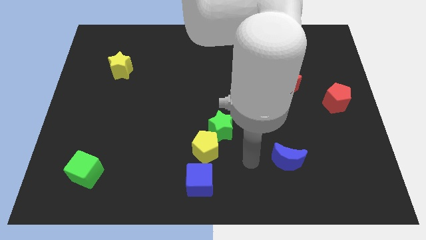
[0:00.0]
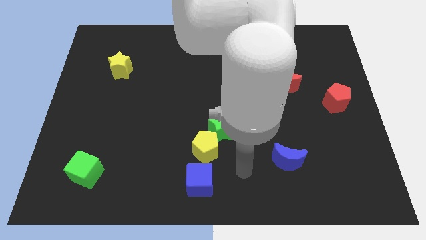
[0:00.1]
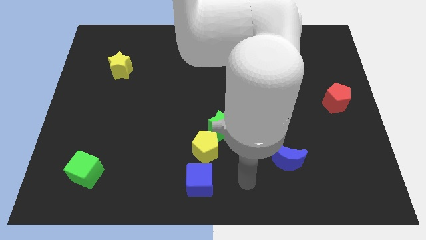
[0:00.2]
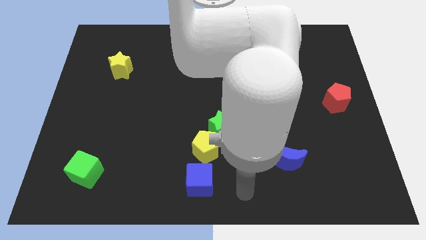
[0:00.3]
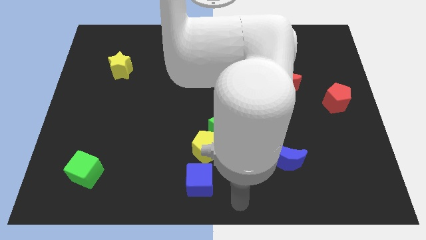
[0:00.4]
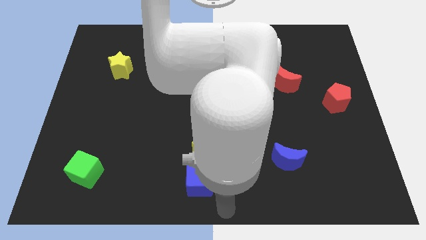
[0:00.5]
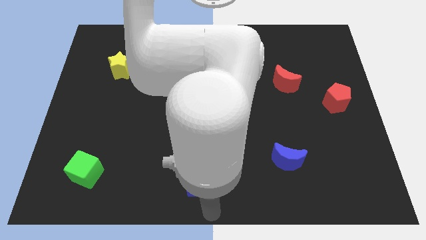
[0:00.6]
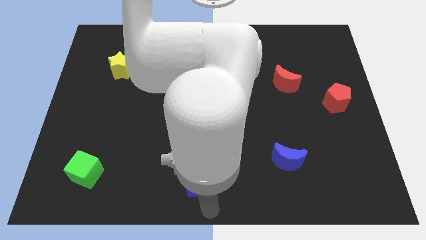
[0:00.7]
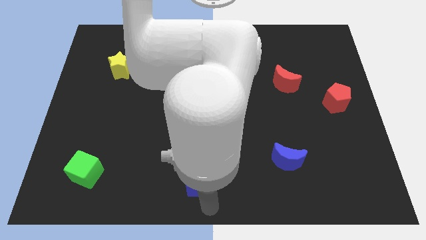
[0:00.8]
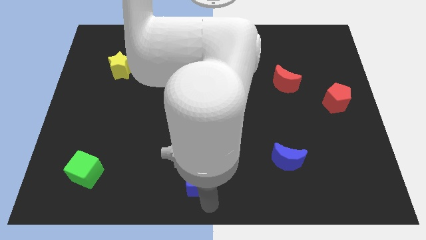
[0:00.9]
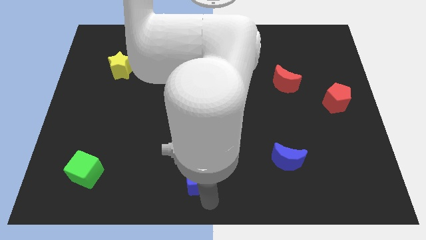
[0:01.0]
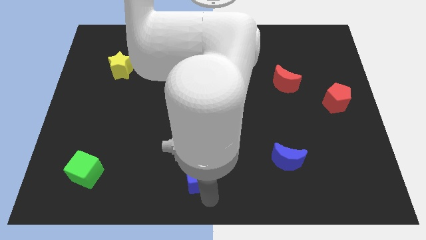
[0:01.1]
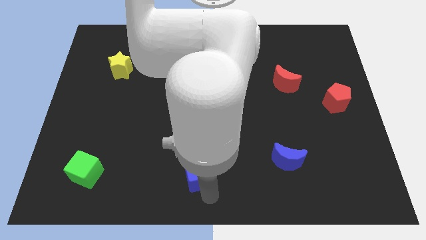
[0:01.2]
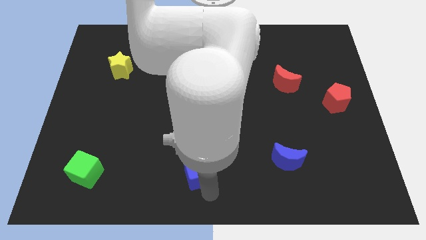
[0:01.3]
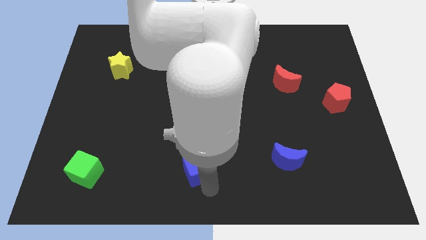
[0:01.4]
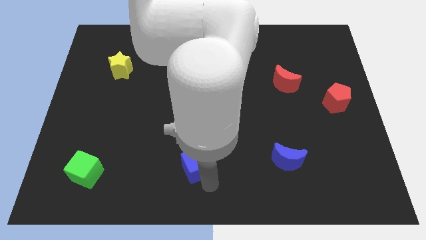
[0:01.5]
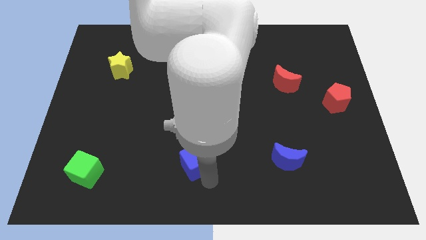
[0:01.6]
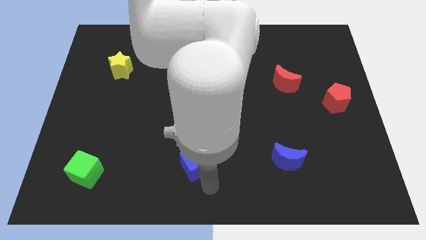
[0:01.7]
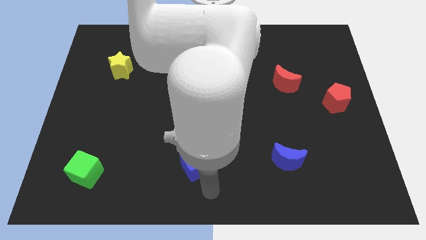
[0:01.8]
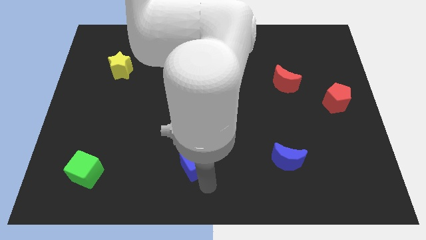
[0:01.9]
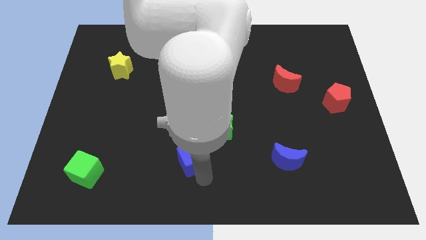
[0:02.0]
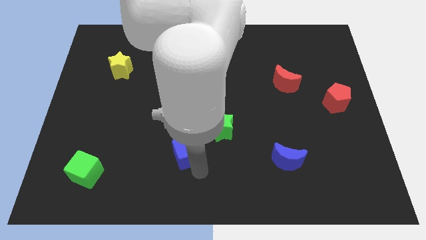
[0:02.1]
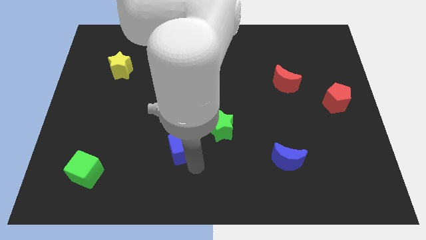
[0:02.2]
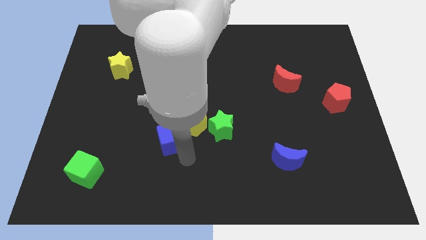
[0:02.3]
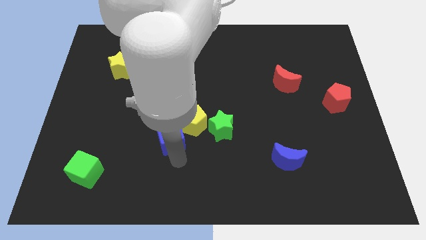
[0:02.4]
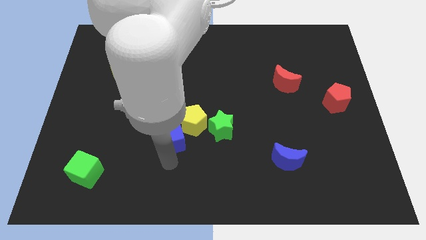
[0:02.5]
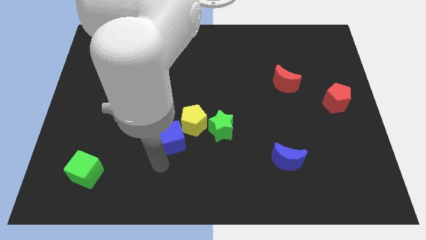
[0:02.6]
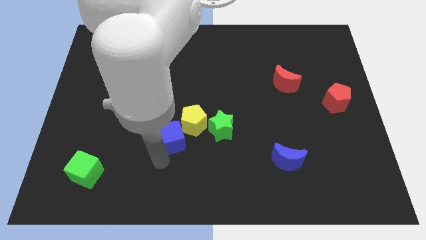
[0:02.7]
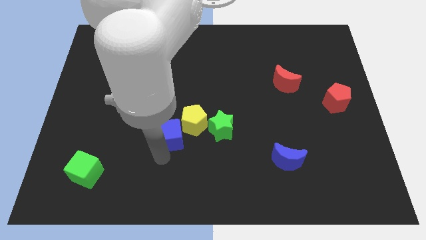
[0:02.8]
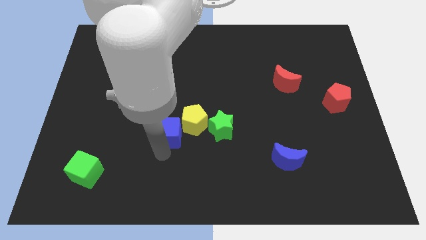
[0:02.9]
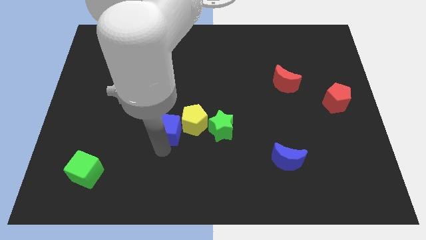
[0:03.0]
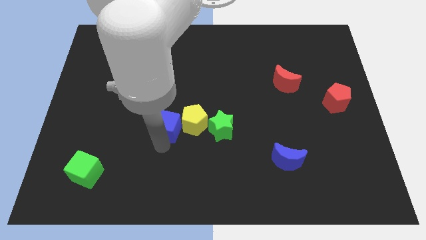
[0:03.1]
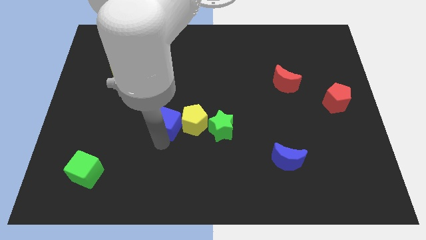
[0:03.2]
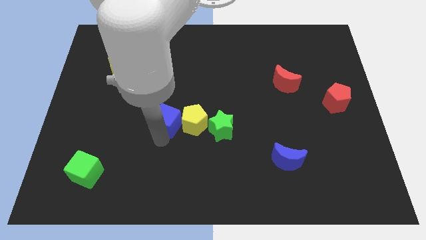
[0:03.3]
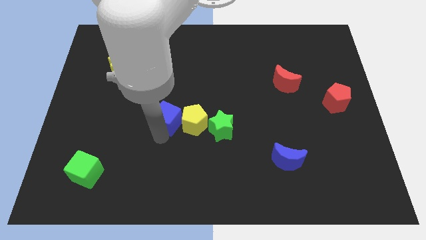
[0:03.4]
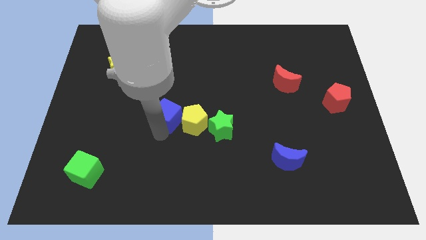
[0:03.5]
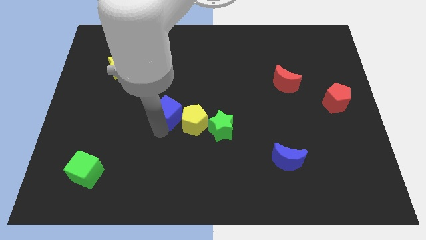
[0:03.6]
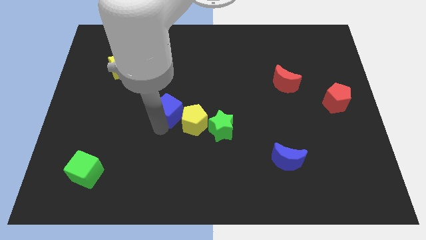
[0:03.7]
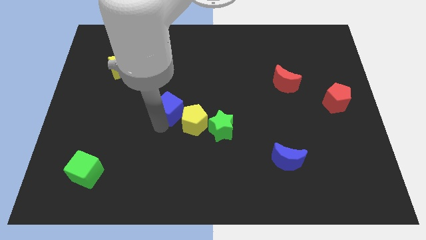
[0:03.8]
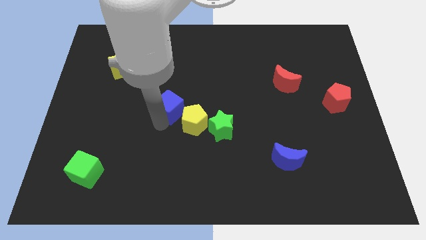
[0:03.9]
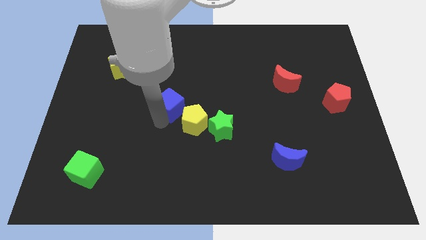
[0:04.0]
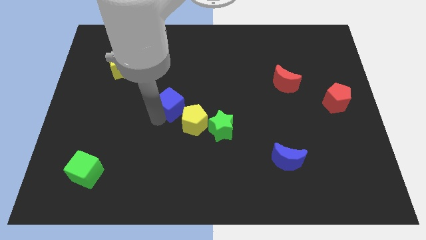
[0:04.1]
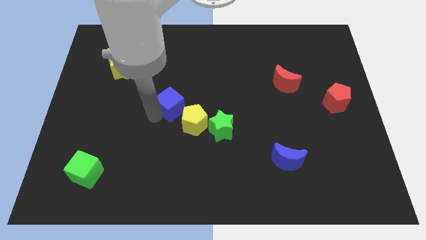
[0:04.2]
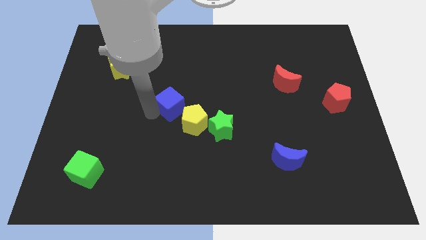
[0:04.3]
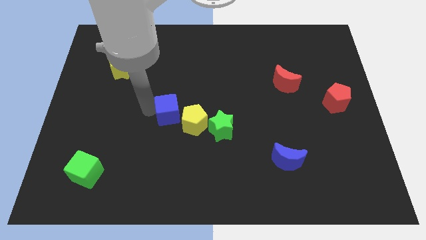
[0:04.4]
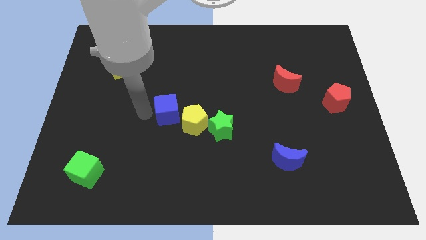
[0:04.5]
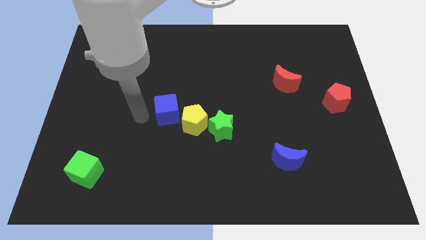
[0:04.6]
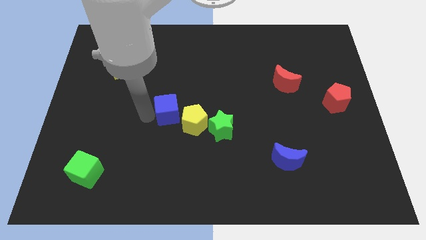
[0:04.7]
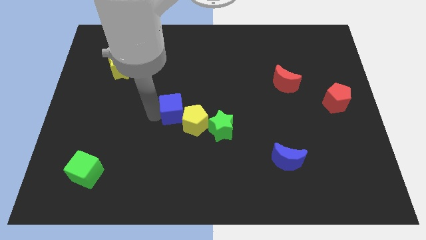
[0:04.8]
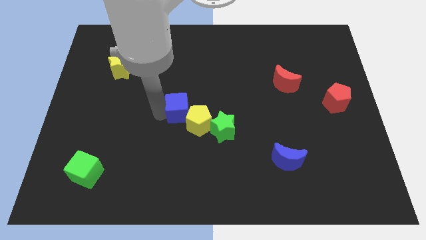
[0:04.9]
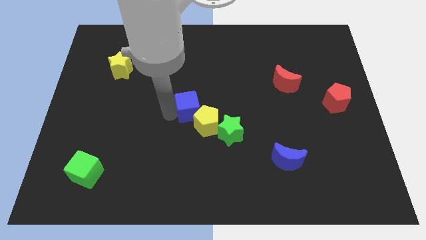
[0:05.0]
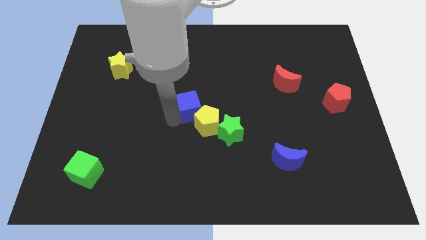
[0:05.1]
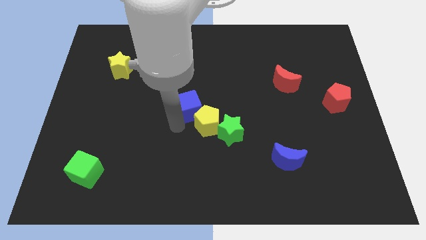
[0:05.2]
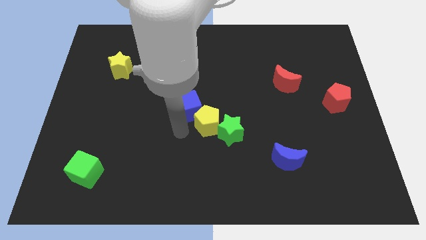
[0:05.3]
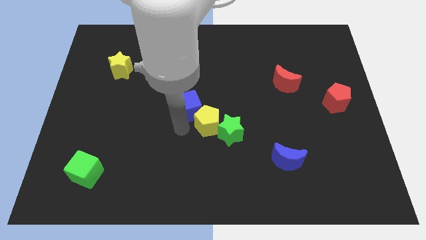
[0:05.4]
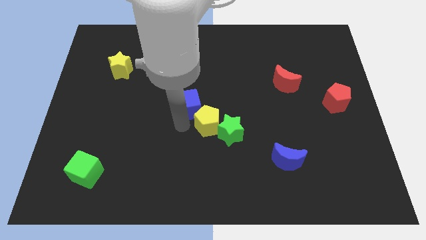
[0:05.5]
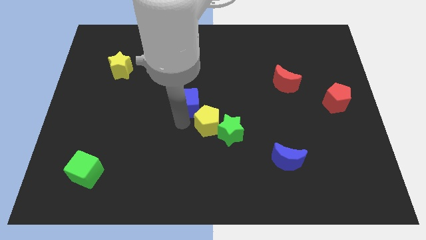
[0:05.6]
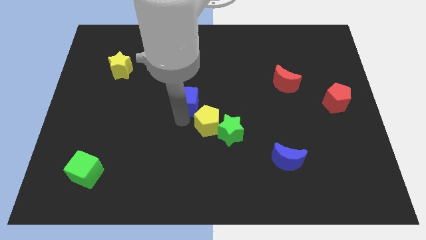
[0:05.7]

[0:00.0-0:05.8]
move the blue cube upwards

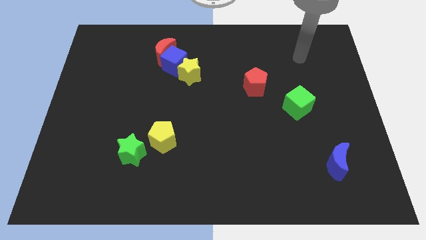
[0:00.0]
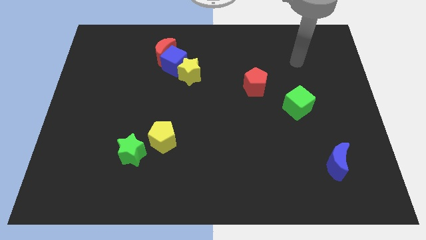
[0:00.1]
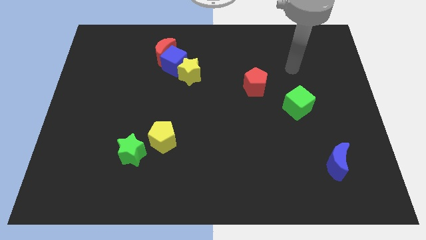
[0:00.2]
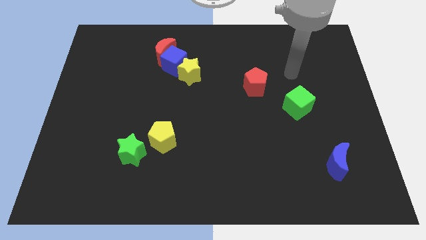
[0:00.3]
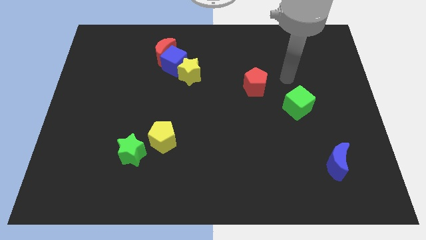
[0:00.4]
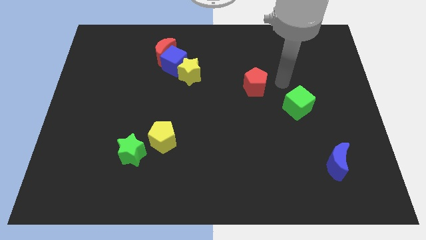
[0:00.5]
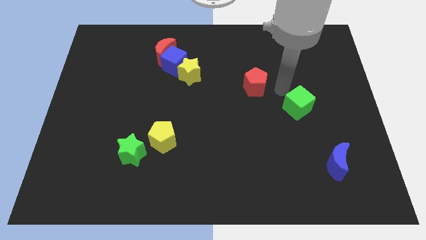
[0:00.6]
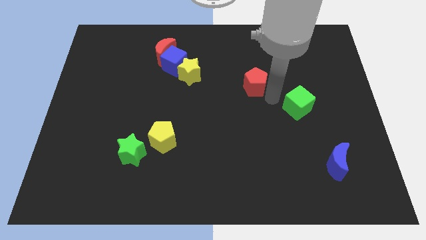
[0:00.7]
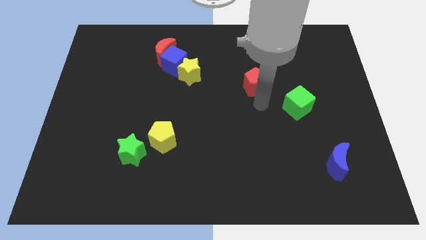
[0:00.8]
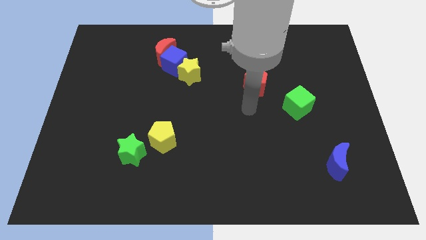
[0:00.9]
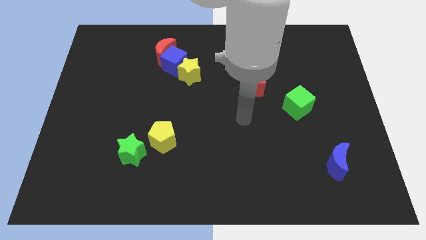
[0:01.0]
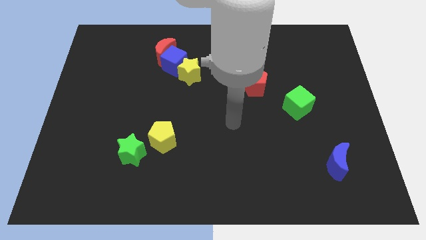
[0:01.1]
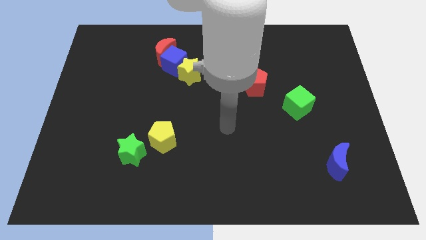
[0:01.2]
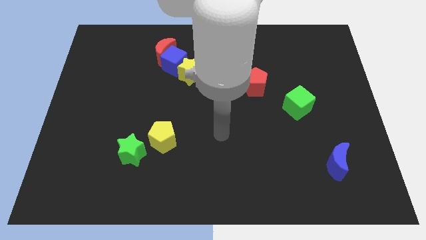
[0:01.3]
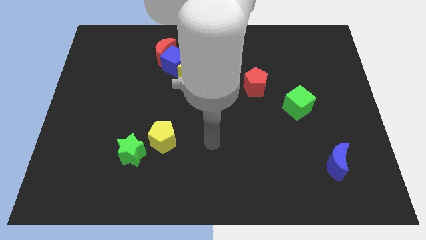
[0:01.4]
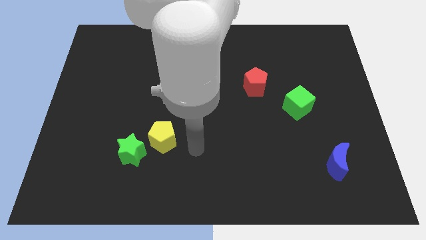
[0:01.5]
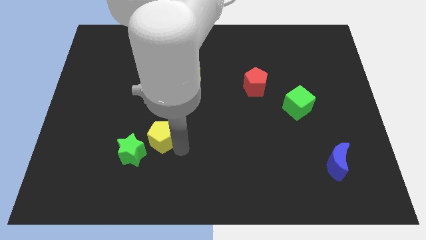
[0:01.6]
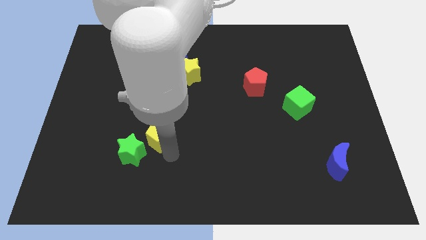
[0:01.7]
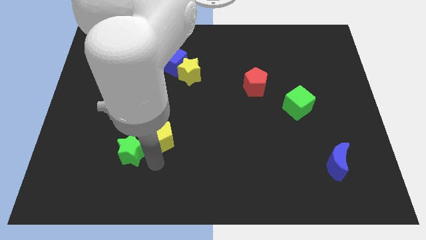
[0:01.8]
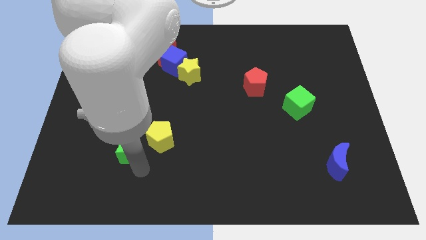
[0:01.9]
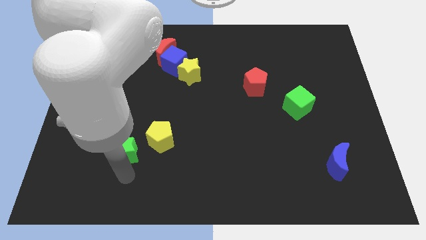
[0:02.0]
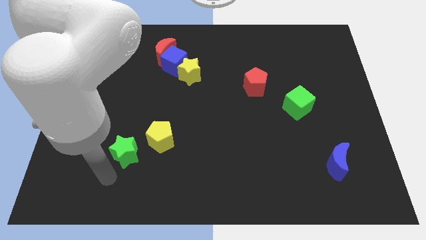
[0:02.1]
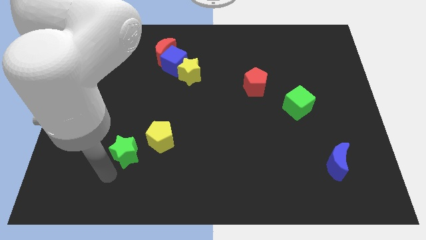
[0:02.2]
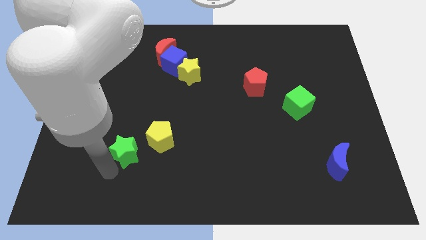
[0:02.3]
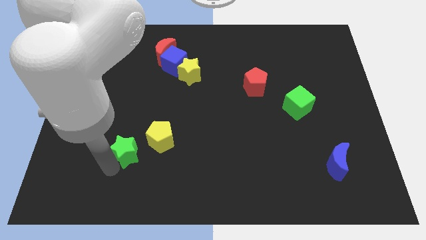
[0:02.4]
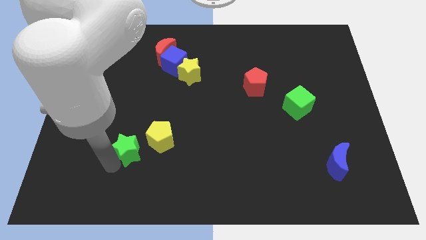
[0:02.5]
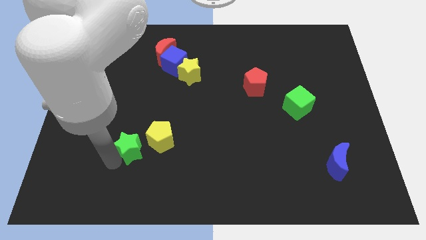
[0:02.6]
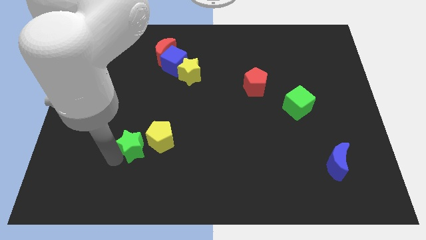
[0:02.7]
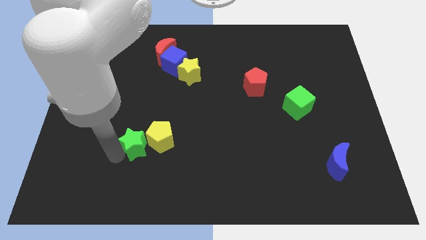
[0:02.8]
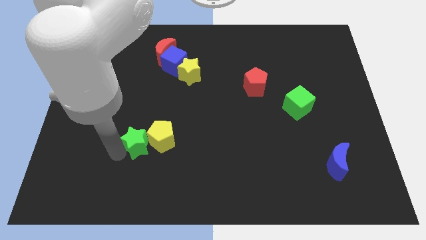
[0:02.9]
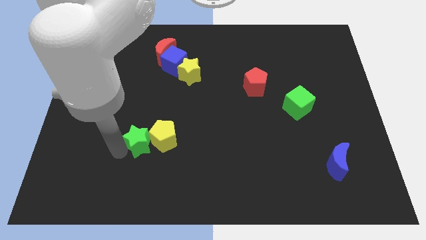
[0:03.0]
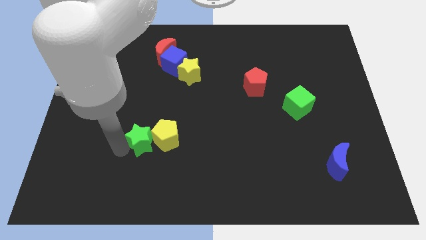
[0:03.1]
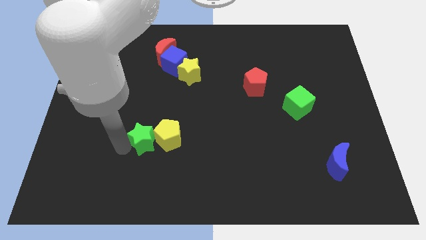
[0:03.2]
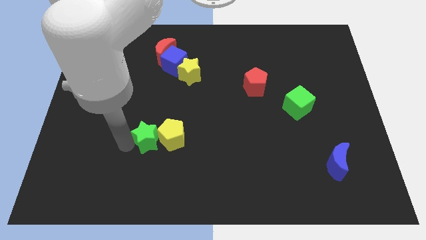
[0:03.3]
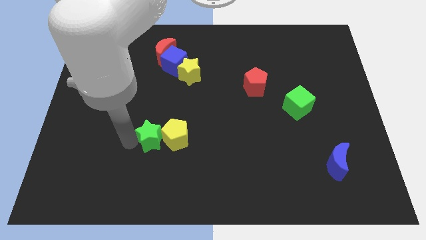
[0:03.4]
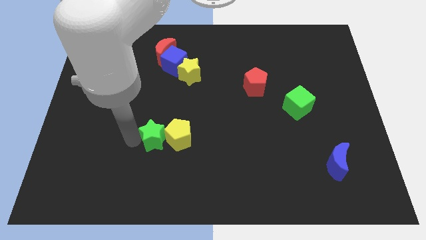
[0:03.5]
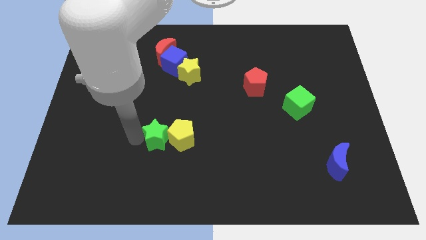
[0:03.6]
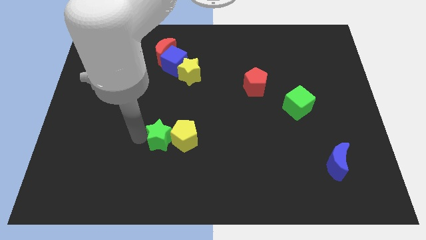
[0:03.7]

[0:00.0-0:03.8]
slightly slide the green star diagonally upwards and right
